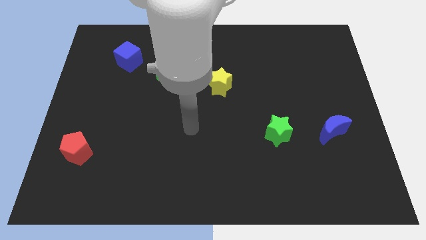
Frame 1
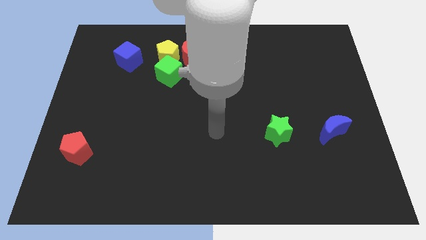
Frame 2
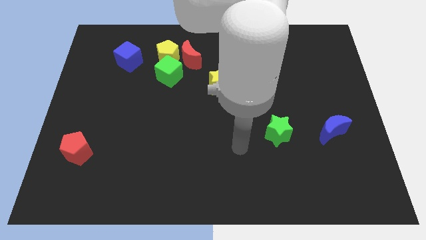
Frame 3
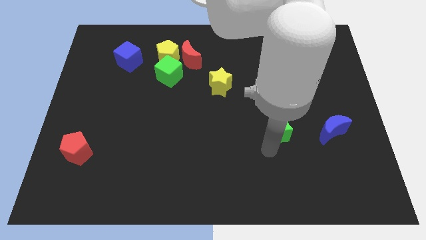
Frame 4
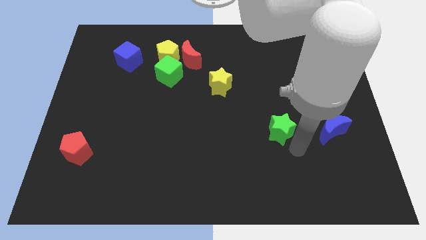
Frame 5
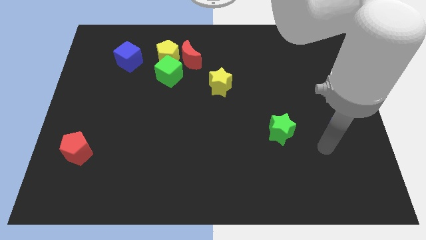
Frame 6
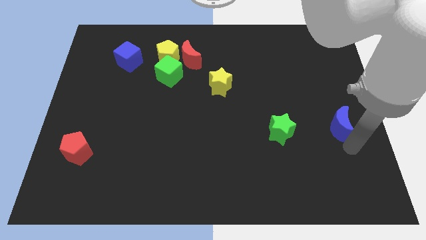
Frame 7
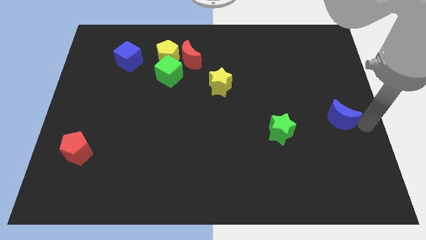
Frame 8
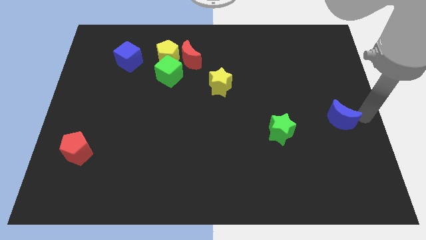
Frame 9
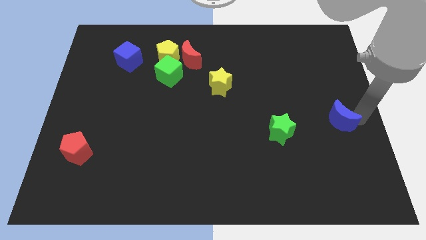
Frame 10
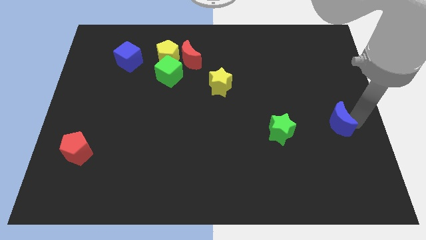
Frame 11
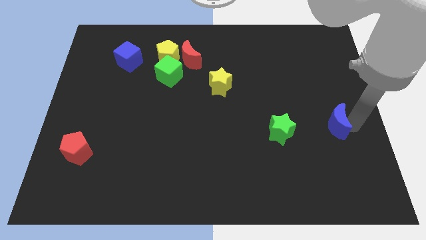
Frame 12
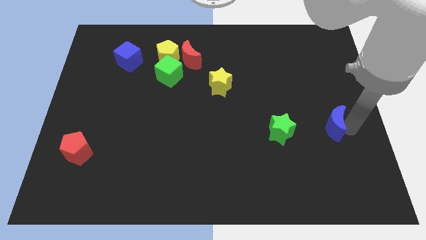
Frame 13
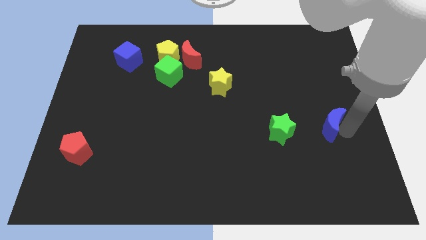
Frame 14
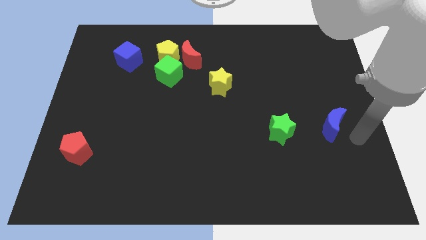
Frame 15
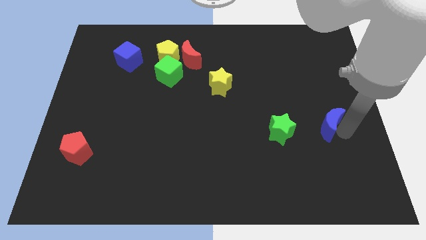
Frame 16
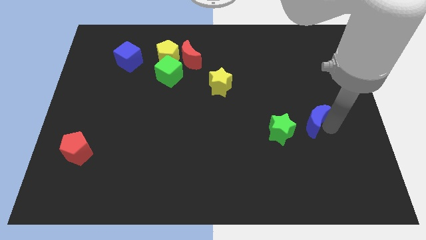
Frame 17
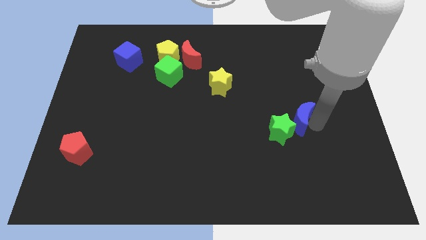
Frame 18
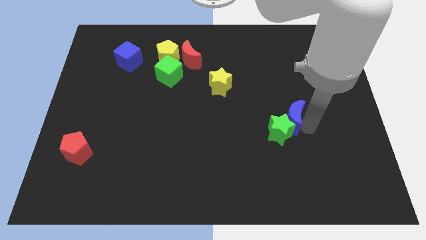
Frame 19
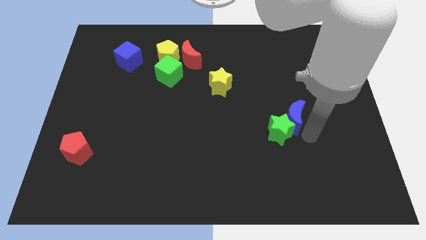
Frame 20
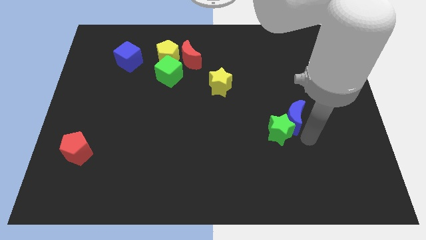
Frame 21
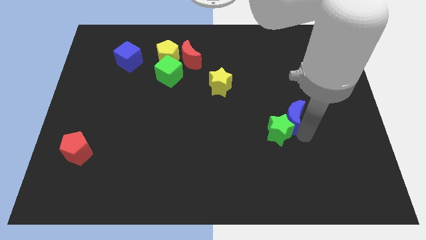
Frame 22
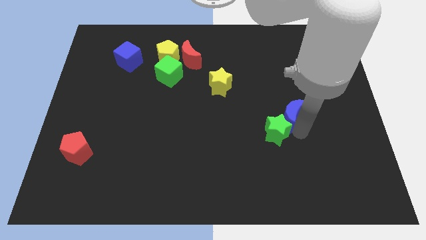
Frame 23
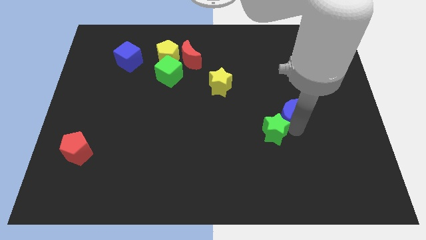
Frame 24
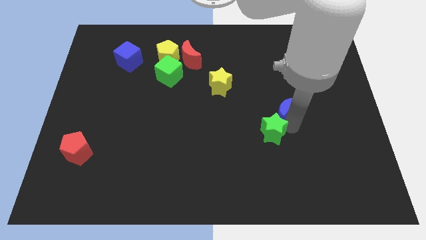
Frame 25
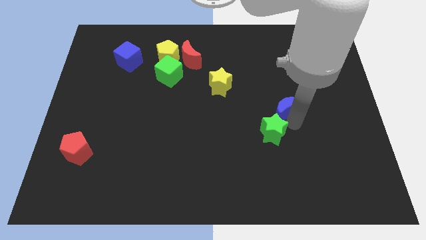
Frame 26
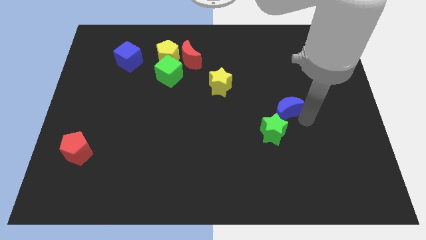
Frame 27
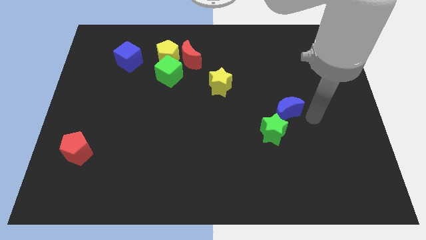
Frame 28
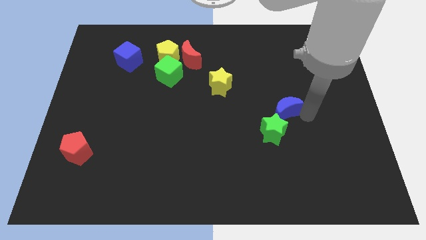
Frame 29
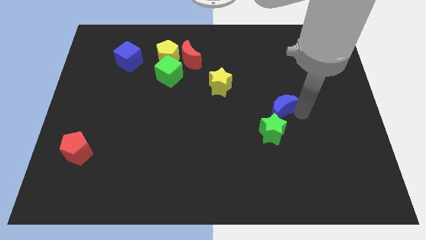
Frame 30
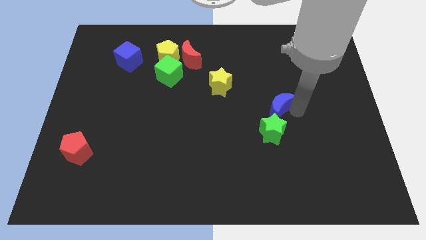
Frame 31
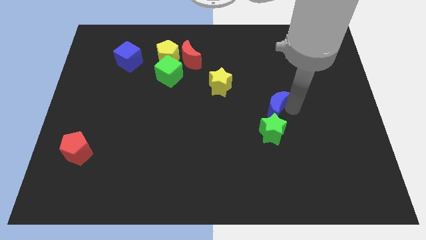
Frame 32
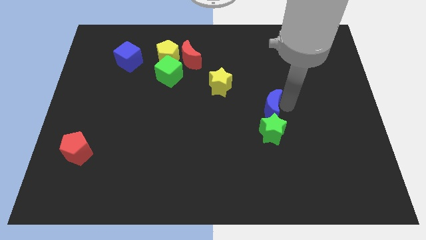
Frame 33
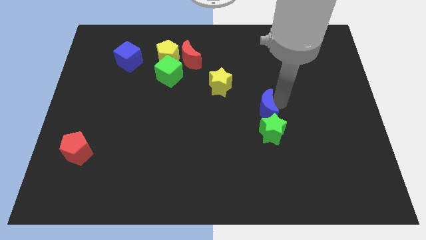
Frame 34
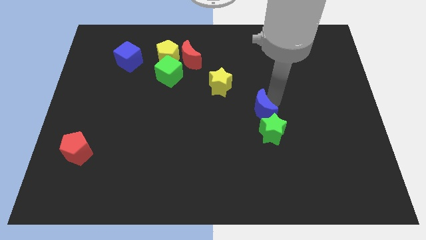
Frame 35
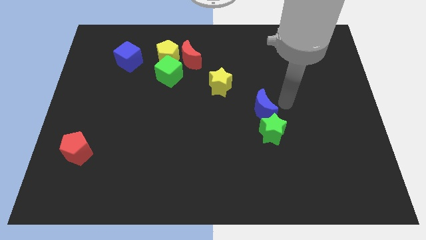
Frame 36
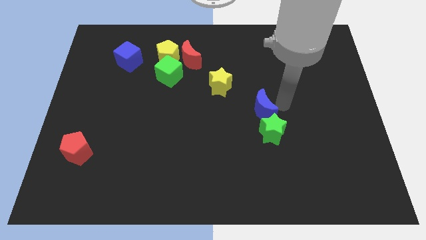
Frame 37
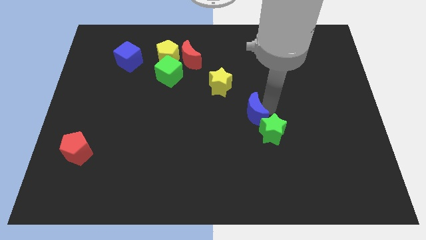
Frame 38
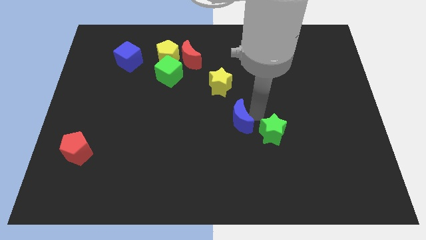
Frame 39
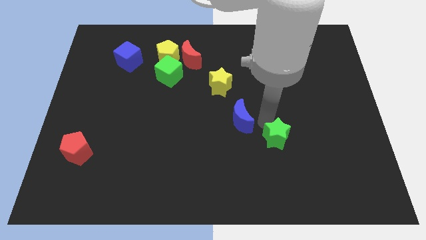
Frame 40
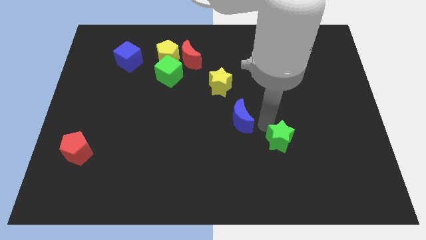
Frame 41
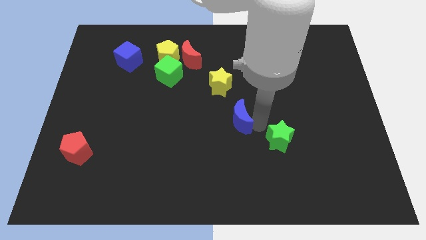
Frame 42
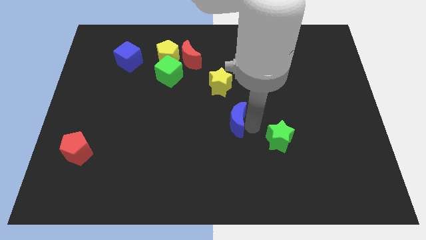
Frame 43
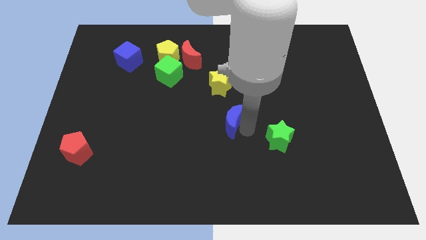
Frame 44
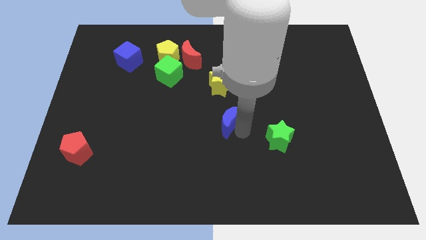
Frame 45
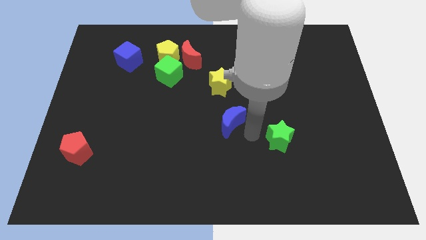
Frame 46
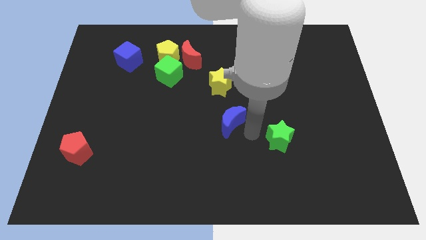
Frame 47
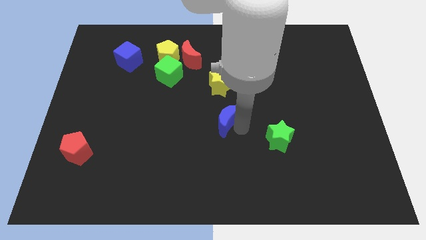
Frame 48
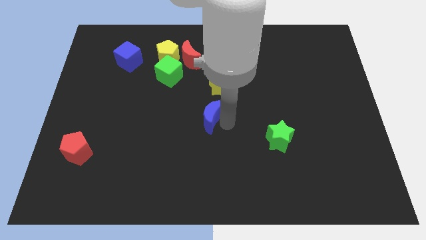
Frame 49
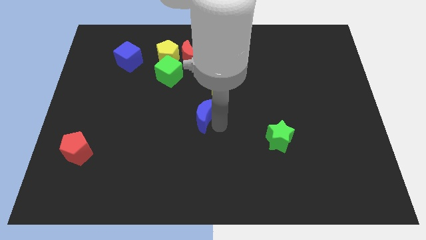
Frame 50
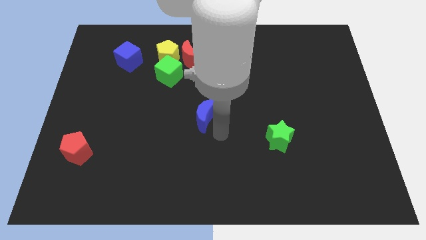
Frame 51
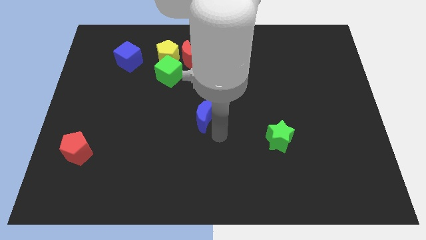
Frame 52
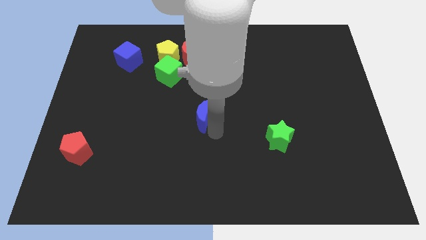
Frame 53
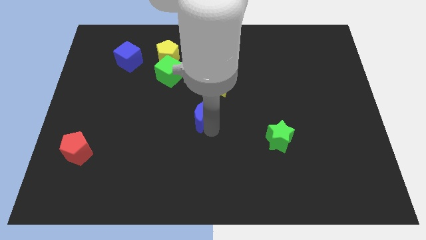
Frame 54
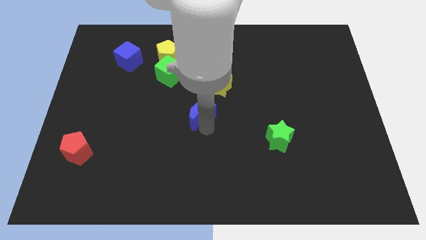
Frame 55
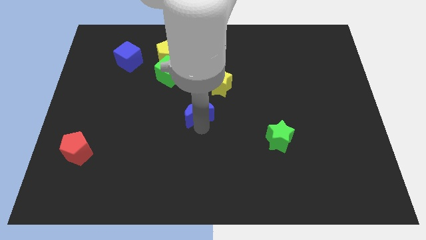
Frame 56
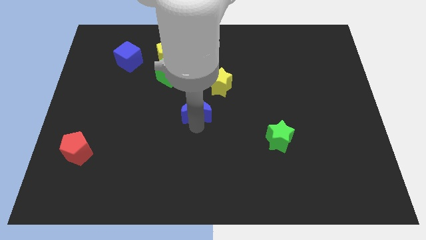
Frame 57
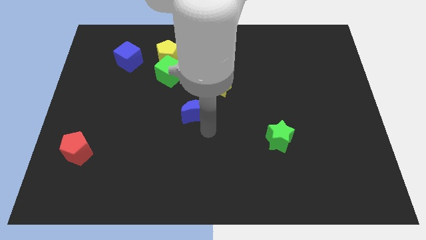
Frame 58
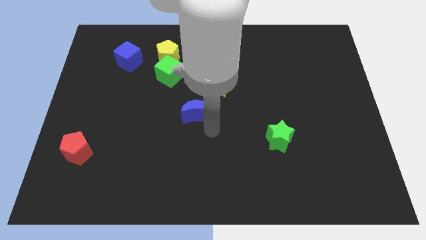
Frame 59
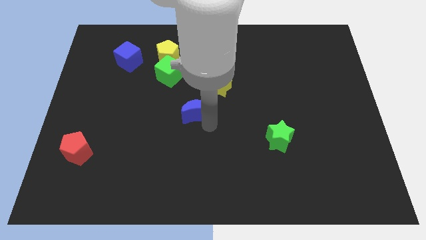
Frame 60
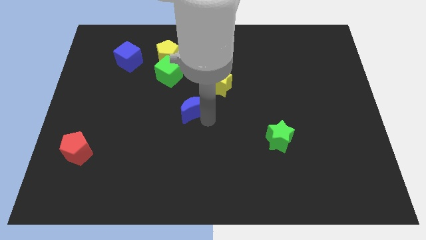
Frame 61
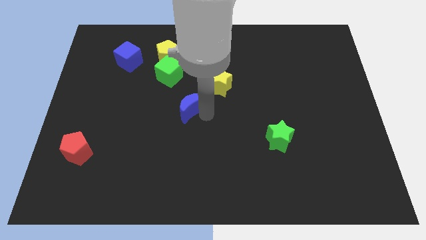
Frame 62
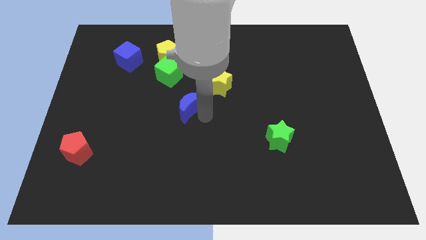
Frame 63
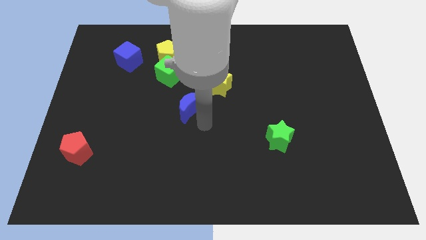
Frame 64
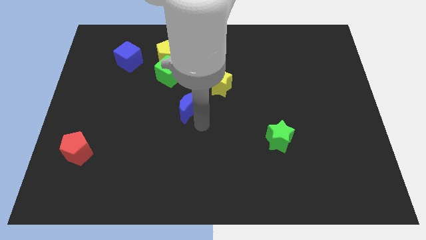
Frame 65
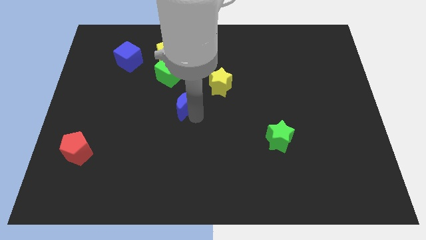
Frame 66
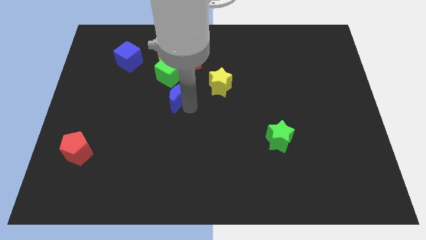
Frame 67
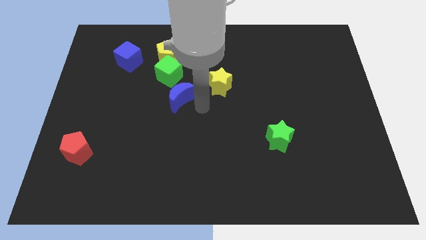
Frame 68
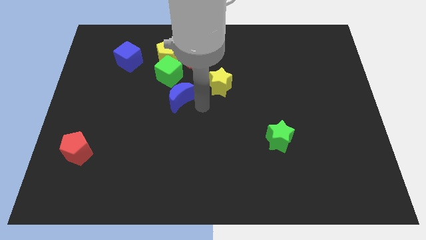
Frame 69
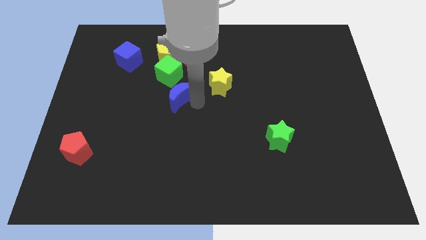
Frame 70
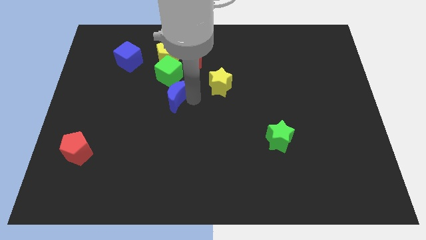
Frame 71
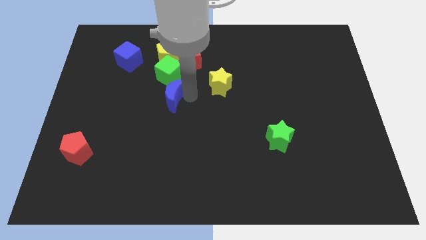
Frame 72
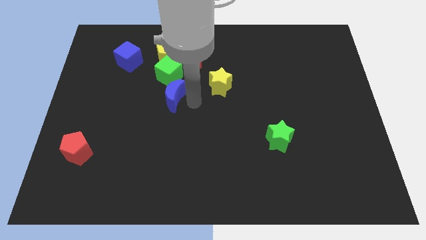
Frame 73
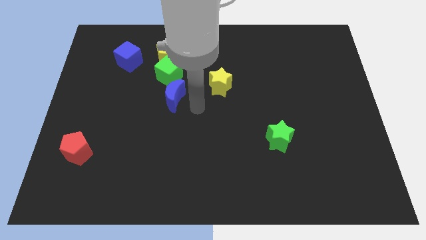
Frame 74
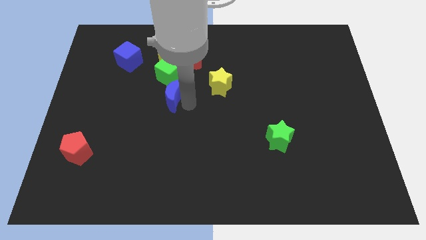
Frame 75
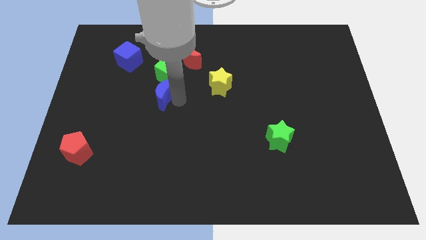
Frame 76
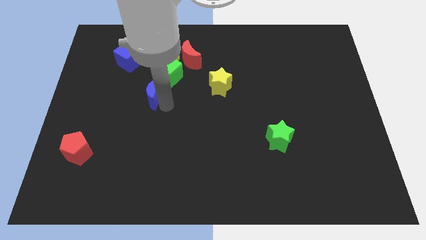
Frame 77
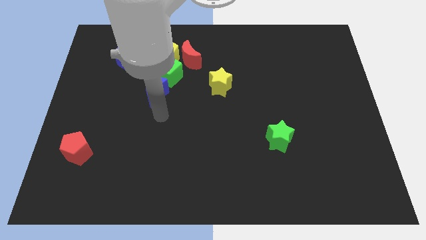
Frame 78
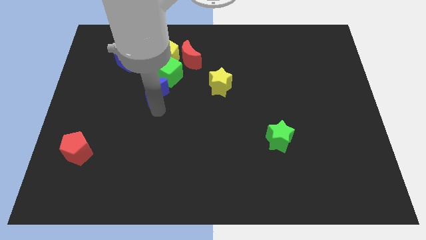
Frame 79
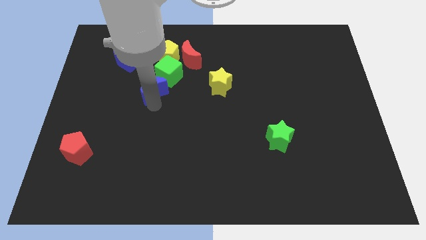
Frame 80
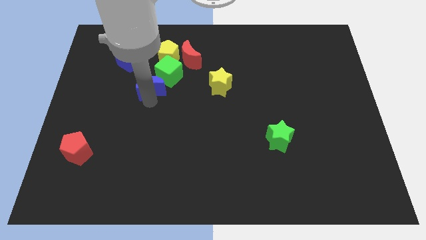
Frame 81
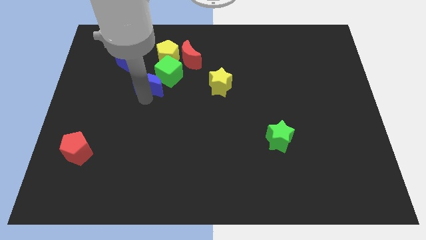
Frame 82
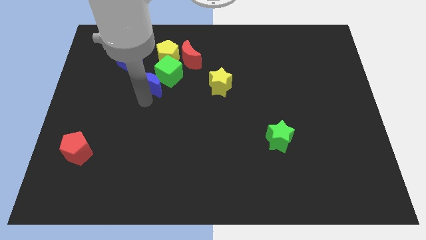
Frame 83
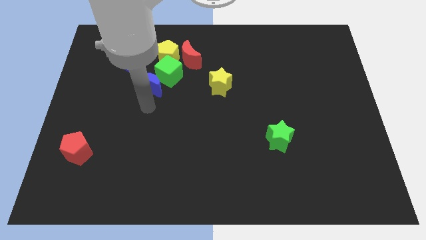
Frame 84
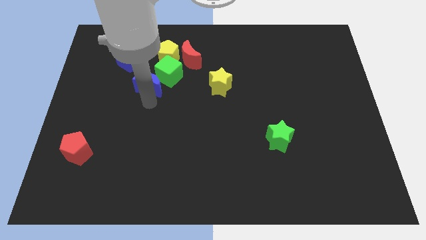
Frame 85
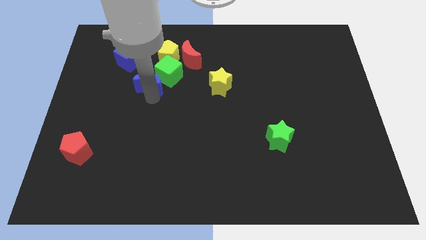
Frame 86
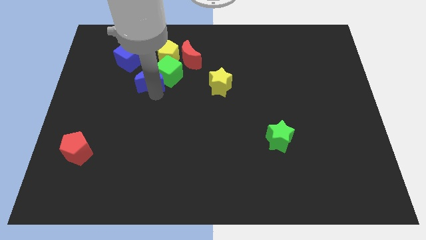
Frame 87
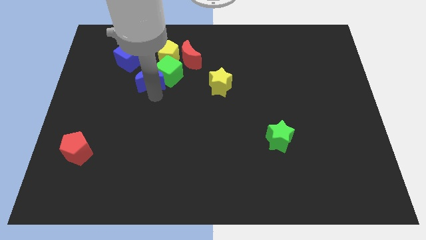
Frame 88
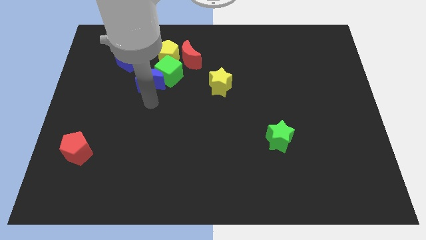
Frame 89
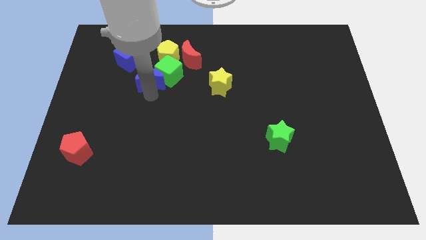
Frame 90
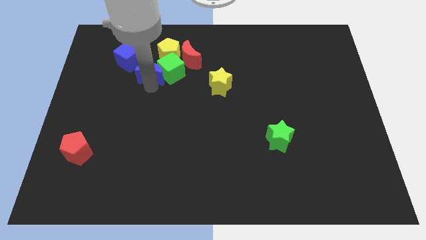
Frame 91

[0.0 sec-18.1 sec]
move the blue moon to the top left of the green cube
